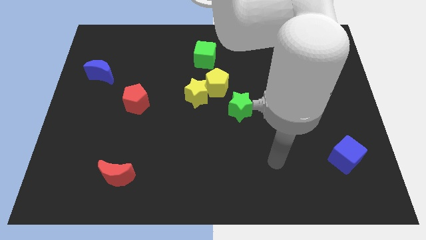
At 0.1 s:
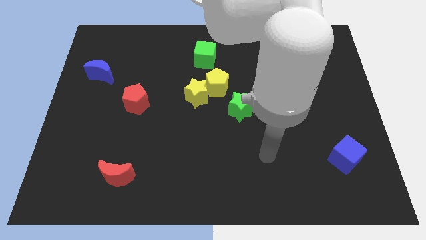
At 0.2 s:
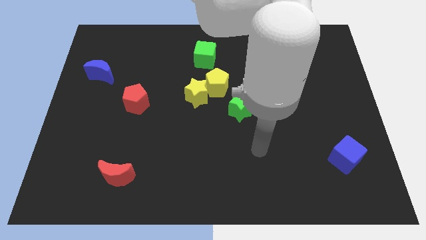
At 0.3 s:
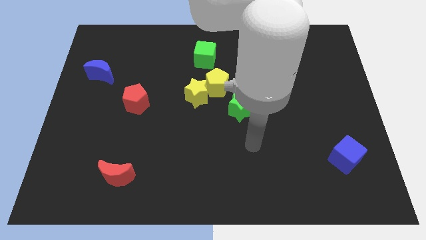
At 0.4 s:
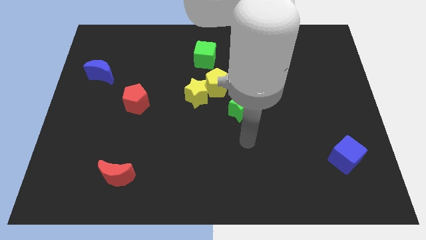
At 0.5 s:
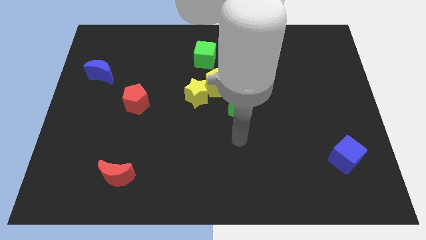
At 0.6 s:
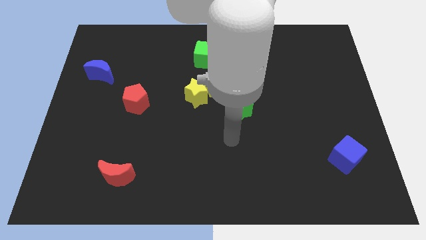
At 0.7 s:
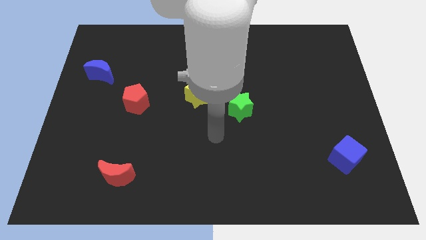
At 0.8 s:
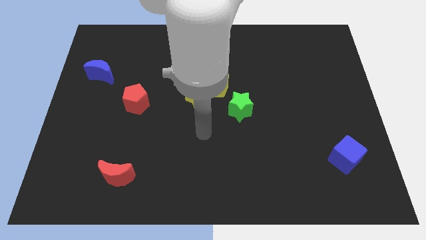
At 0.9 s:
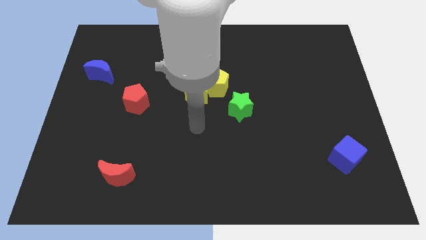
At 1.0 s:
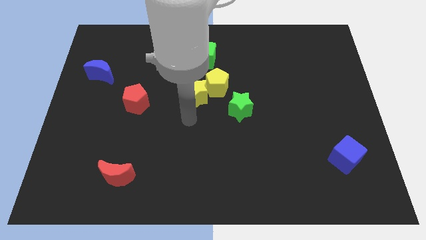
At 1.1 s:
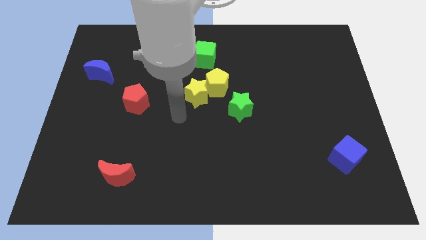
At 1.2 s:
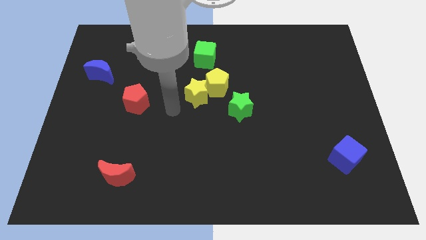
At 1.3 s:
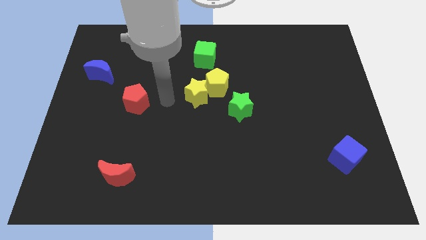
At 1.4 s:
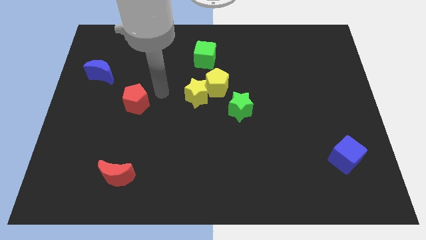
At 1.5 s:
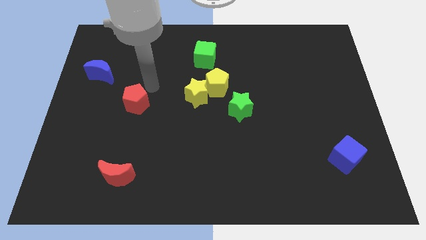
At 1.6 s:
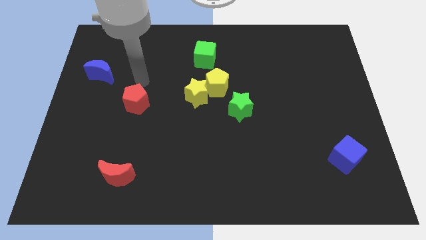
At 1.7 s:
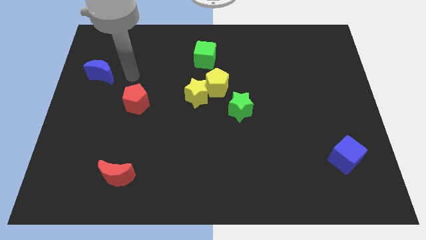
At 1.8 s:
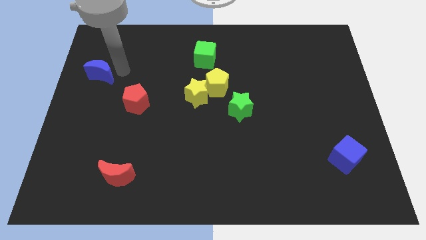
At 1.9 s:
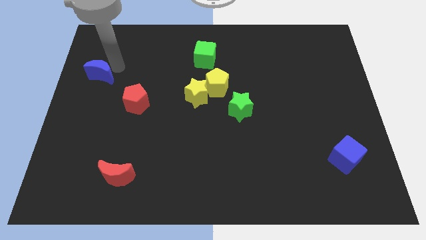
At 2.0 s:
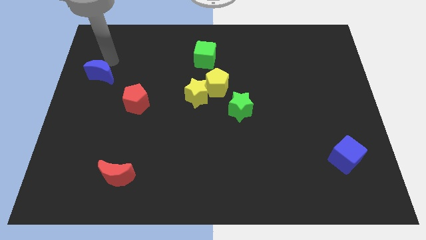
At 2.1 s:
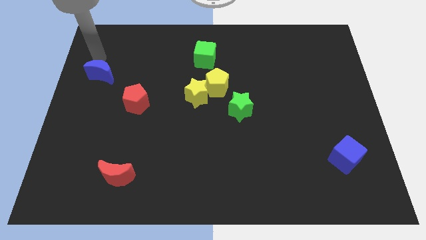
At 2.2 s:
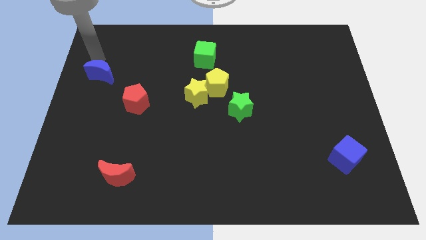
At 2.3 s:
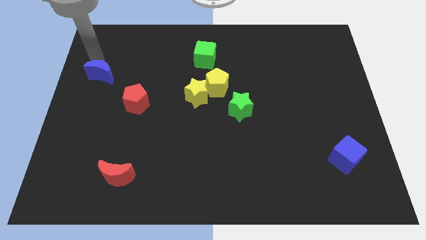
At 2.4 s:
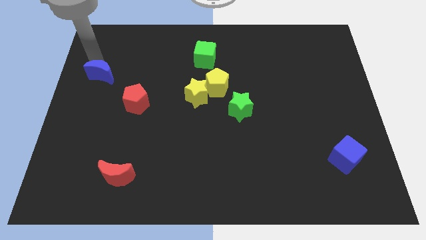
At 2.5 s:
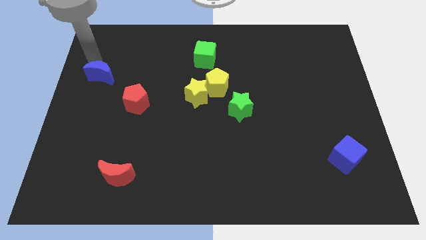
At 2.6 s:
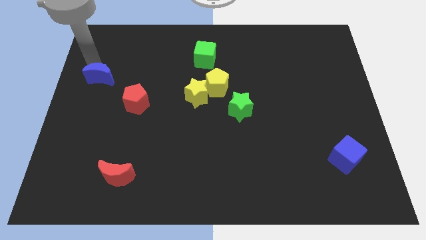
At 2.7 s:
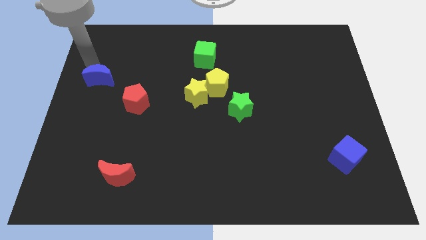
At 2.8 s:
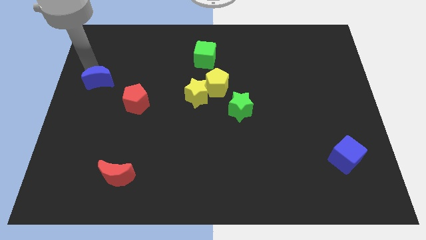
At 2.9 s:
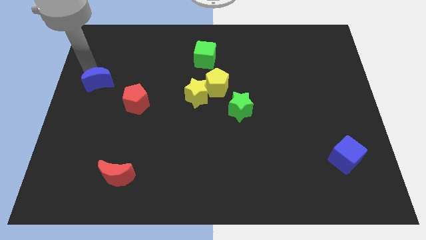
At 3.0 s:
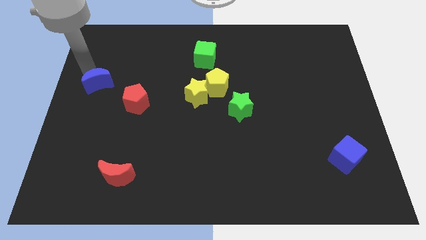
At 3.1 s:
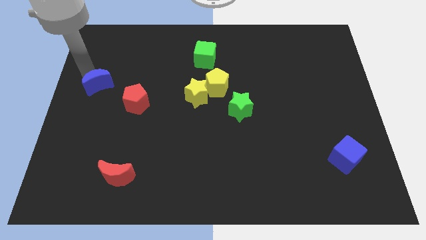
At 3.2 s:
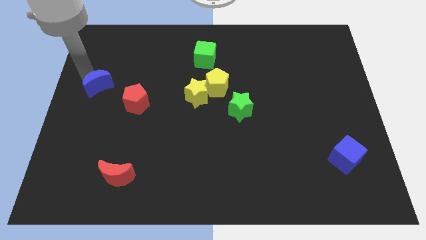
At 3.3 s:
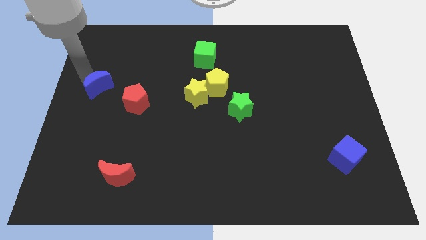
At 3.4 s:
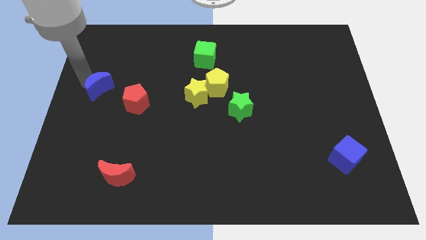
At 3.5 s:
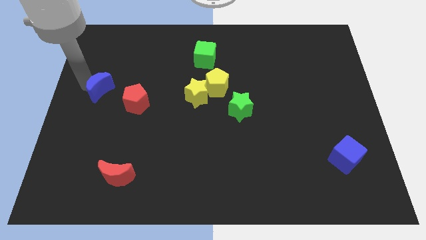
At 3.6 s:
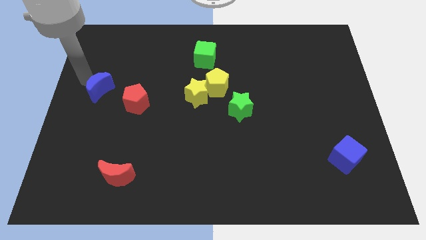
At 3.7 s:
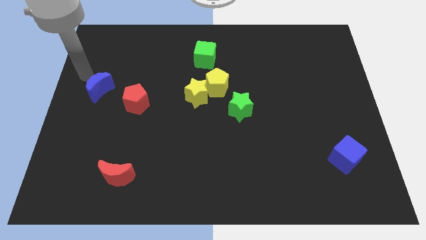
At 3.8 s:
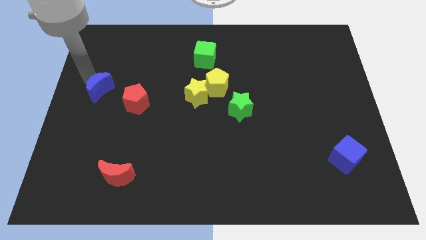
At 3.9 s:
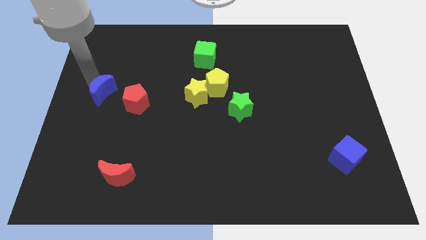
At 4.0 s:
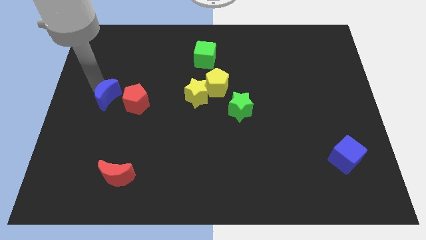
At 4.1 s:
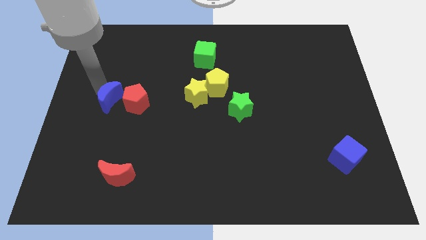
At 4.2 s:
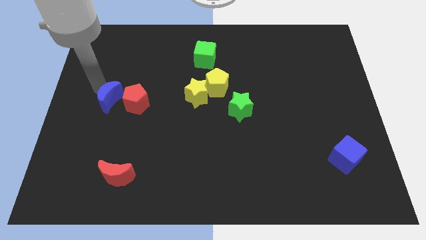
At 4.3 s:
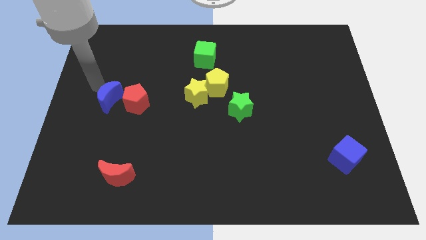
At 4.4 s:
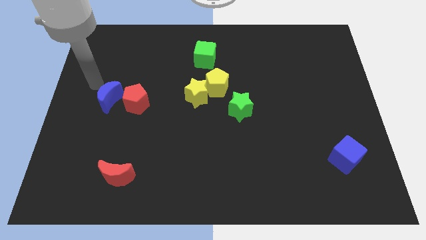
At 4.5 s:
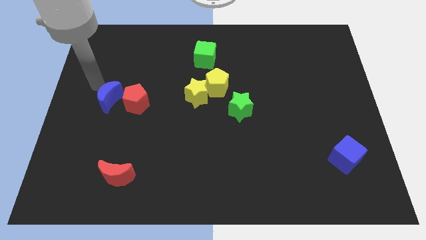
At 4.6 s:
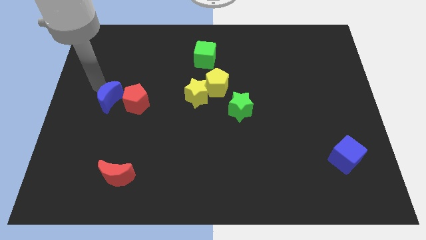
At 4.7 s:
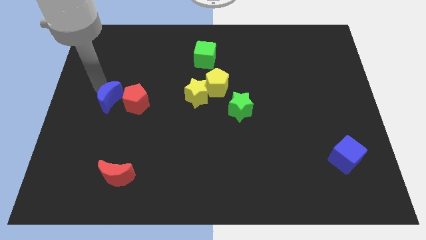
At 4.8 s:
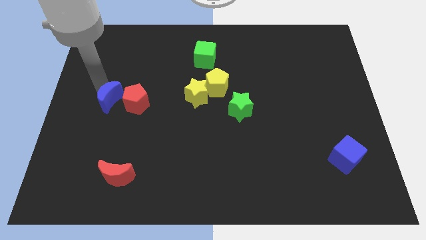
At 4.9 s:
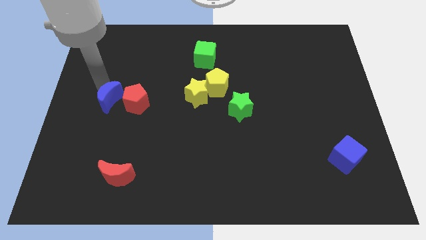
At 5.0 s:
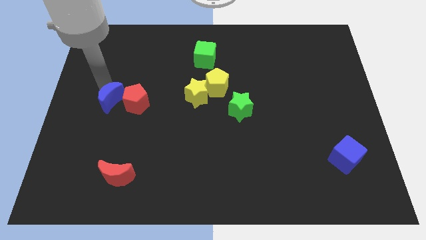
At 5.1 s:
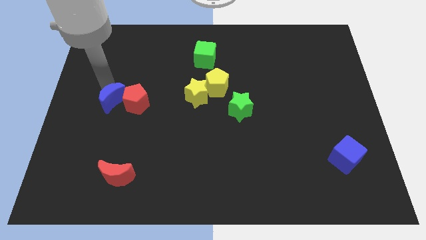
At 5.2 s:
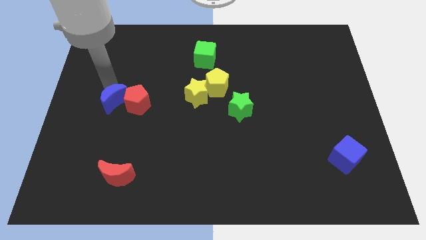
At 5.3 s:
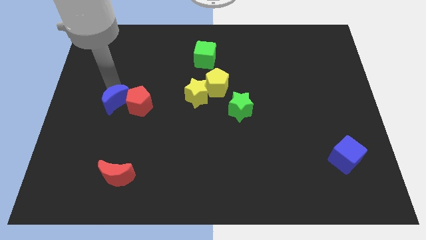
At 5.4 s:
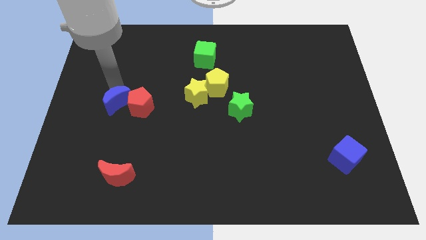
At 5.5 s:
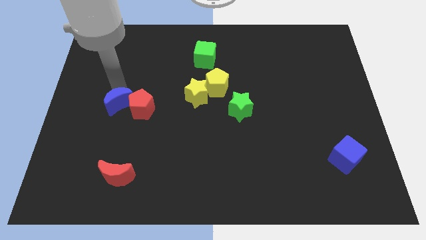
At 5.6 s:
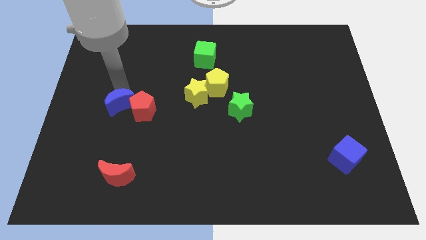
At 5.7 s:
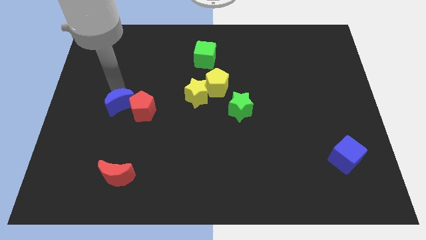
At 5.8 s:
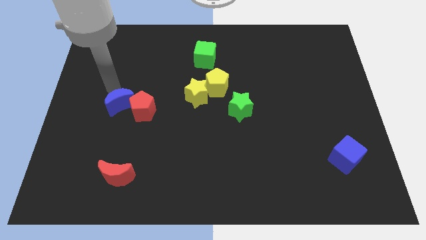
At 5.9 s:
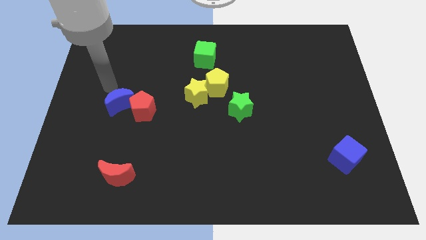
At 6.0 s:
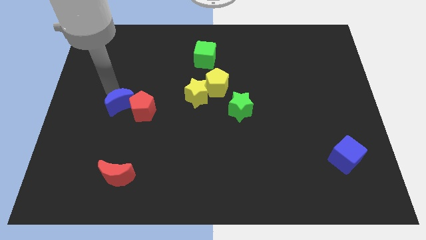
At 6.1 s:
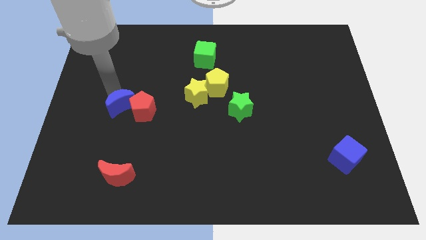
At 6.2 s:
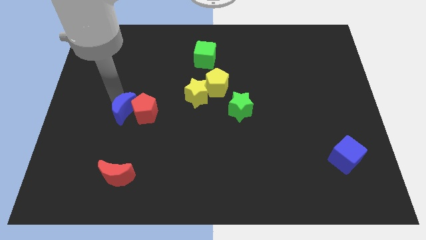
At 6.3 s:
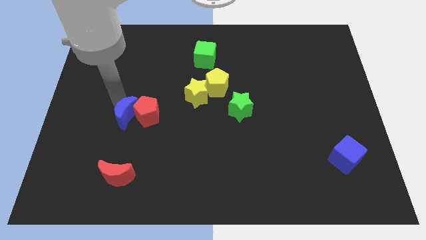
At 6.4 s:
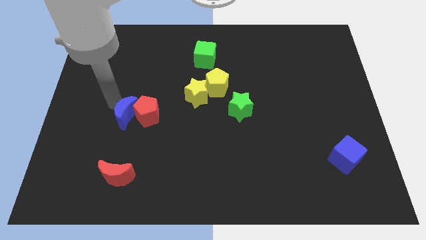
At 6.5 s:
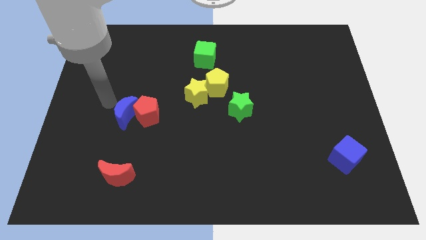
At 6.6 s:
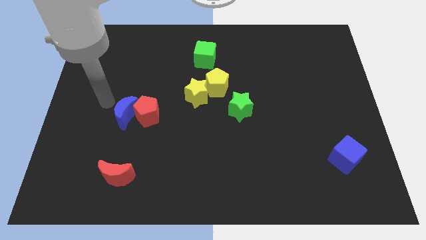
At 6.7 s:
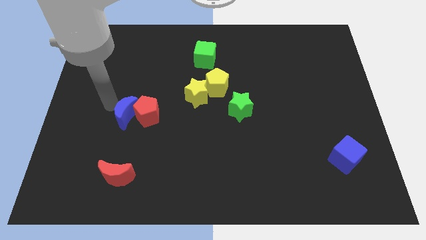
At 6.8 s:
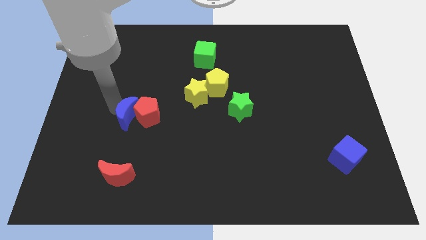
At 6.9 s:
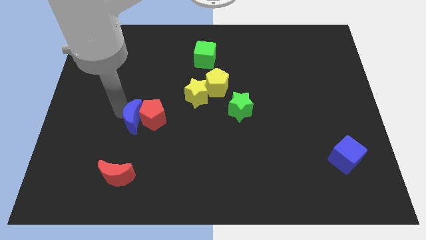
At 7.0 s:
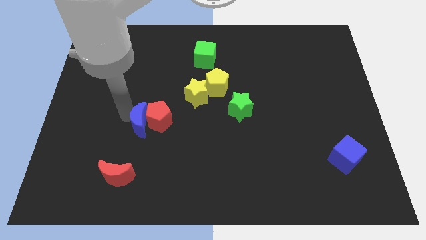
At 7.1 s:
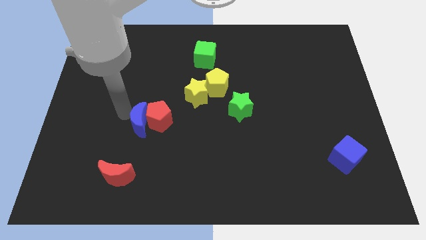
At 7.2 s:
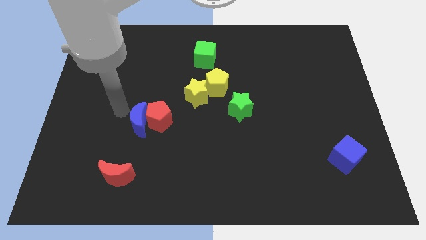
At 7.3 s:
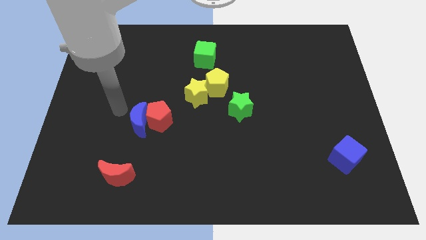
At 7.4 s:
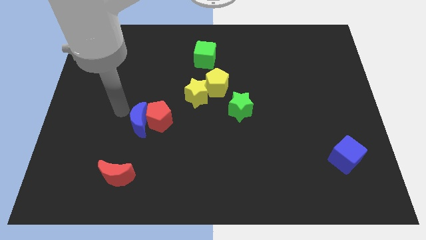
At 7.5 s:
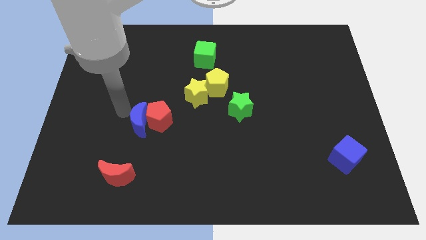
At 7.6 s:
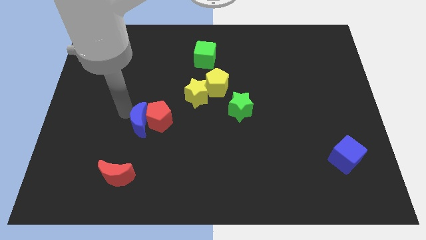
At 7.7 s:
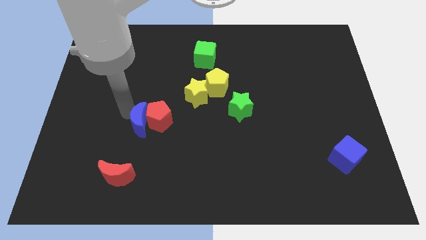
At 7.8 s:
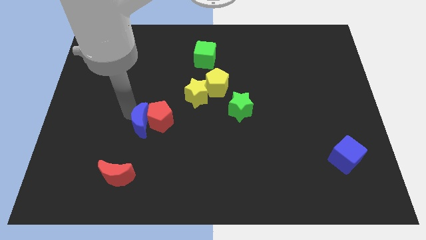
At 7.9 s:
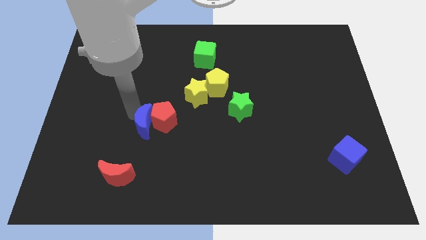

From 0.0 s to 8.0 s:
slide the blue moon downwards and right

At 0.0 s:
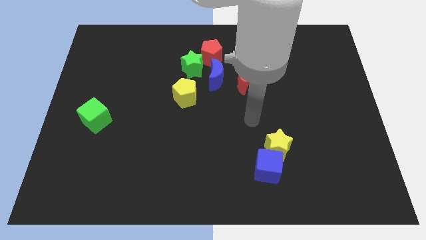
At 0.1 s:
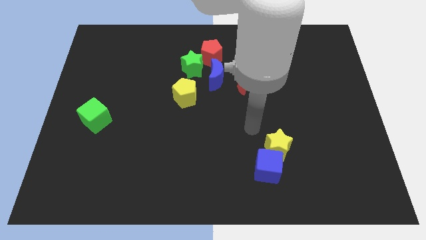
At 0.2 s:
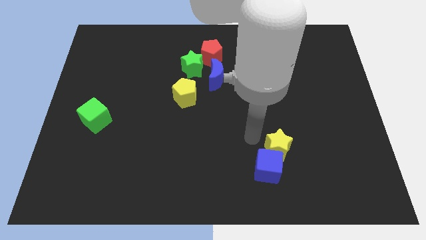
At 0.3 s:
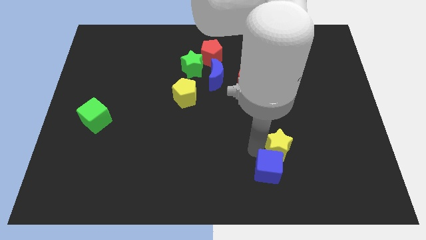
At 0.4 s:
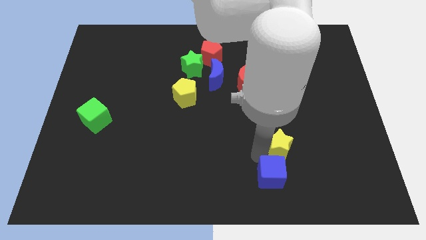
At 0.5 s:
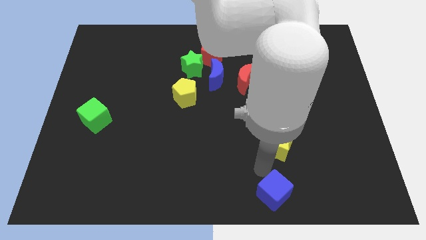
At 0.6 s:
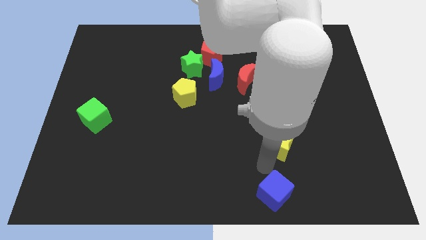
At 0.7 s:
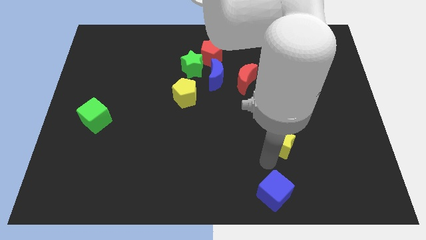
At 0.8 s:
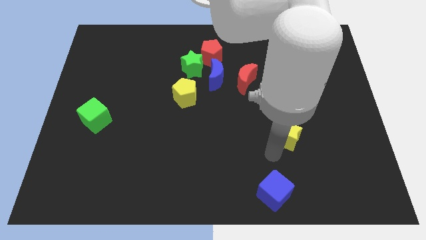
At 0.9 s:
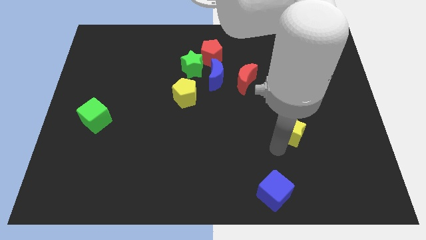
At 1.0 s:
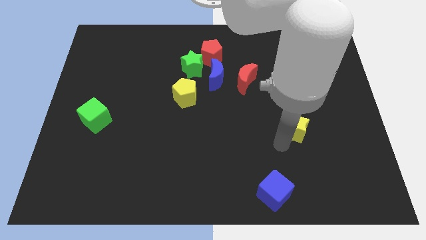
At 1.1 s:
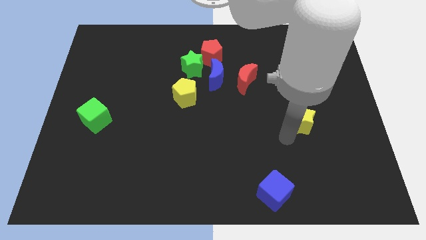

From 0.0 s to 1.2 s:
slightly push the yellow star up and to the right diagonally
